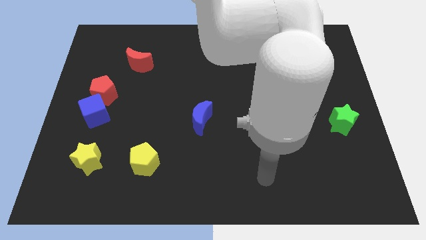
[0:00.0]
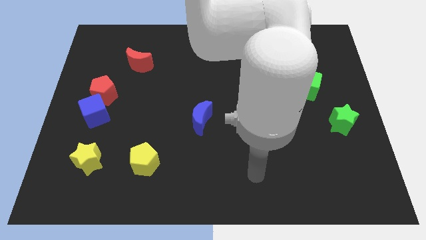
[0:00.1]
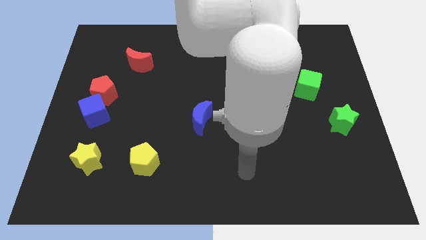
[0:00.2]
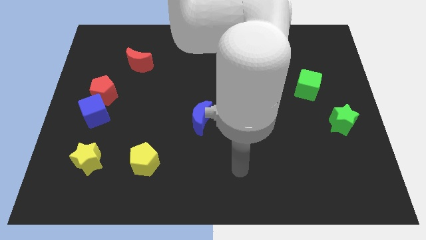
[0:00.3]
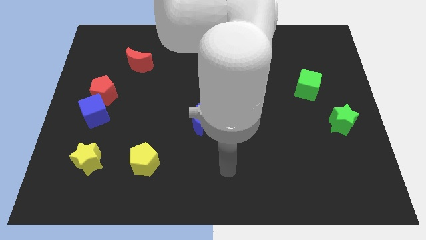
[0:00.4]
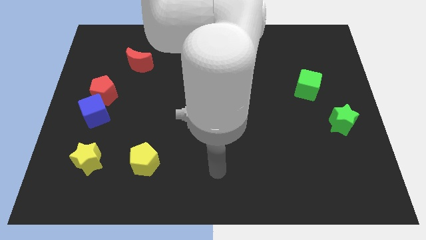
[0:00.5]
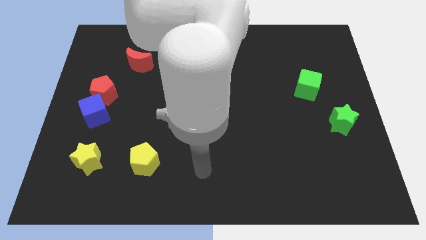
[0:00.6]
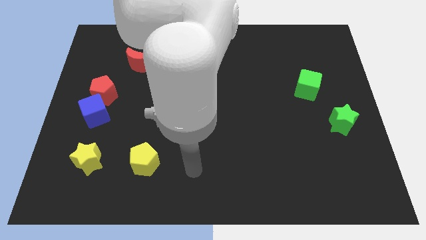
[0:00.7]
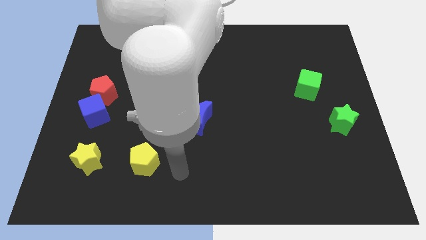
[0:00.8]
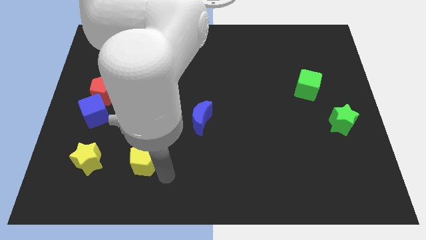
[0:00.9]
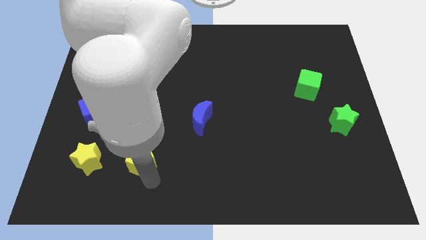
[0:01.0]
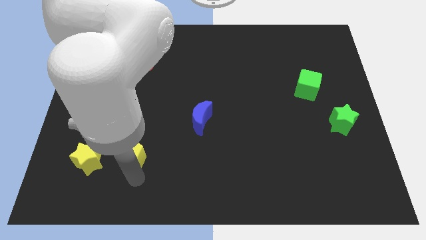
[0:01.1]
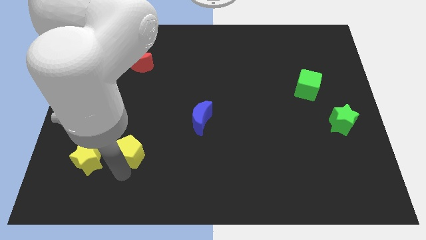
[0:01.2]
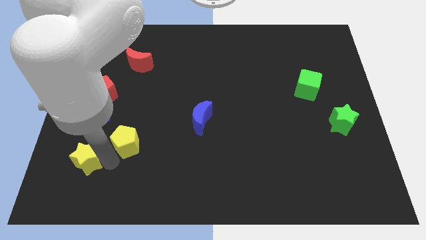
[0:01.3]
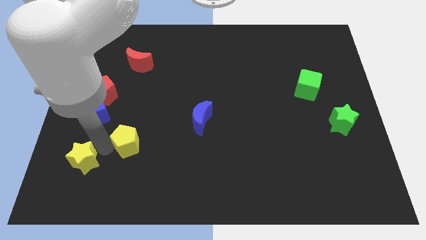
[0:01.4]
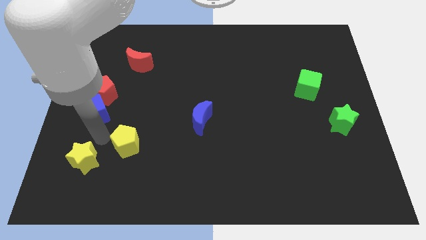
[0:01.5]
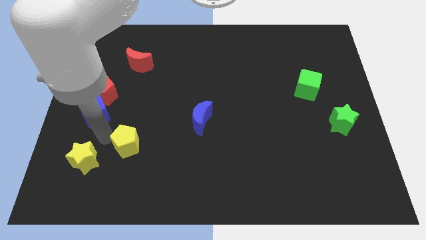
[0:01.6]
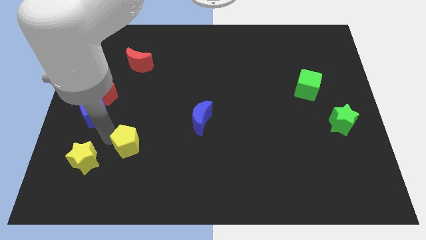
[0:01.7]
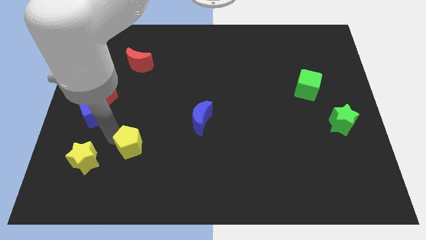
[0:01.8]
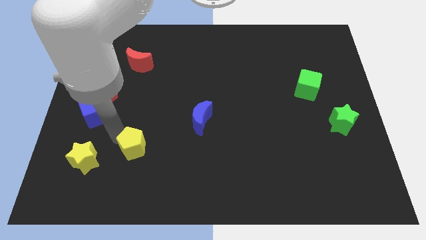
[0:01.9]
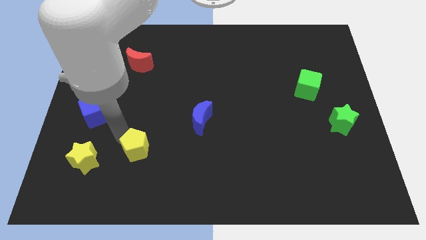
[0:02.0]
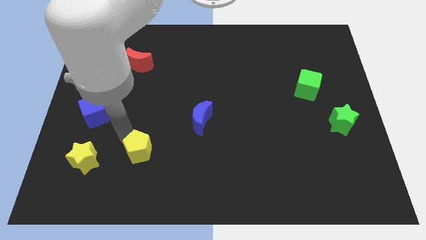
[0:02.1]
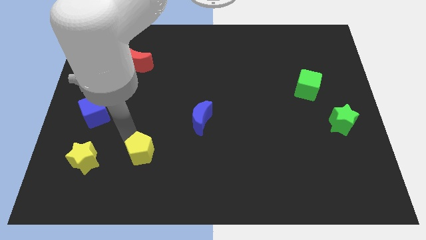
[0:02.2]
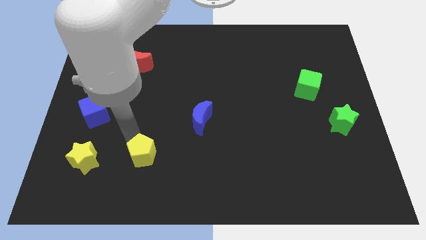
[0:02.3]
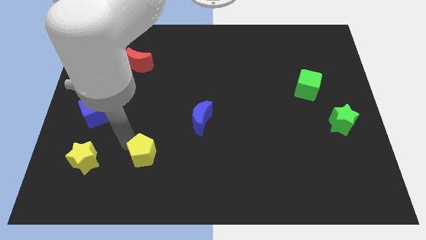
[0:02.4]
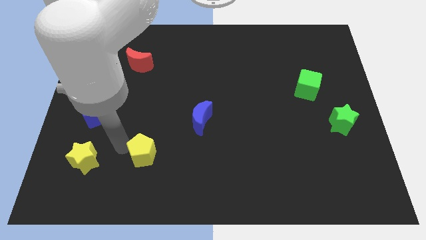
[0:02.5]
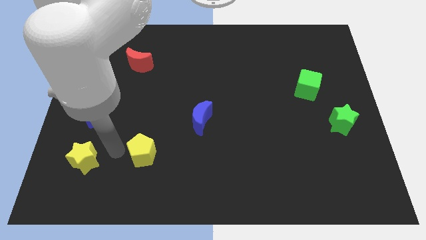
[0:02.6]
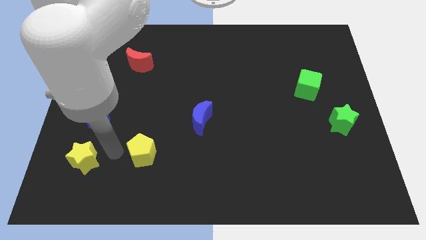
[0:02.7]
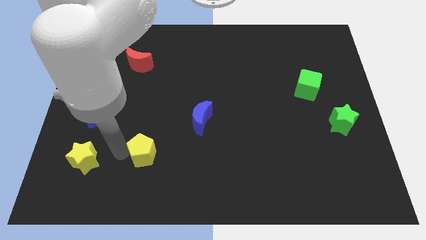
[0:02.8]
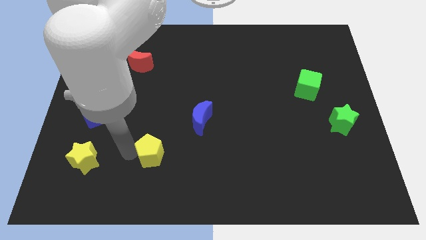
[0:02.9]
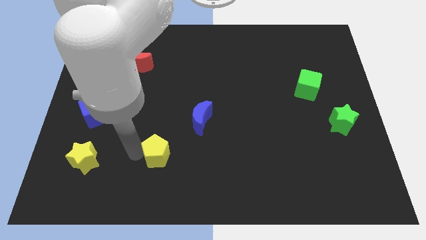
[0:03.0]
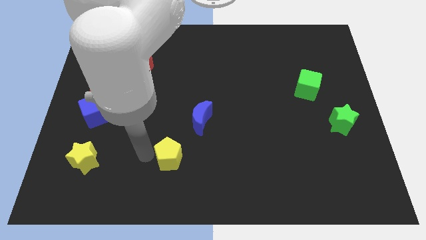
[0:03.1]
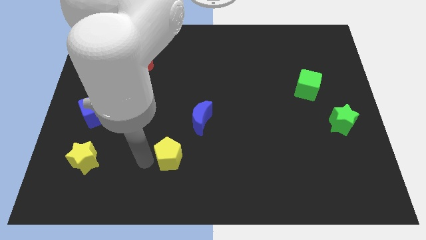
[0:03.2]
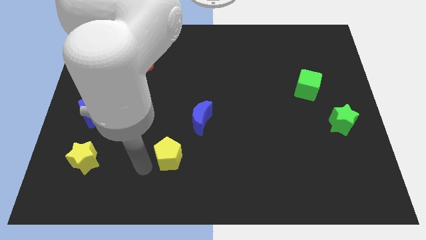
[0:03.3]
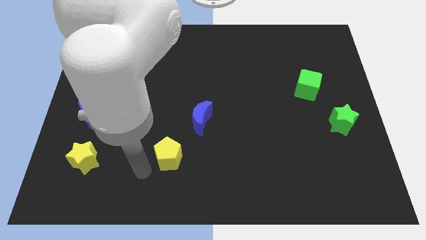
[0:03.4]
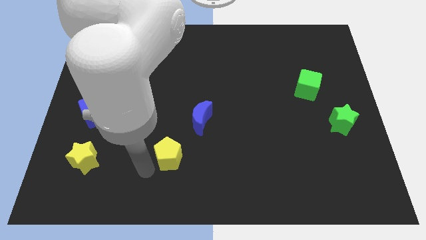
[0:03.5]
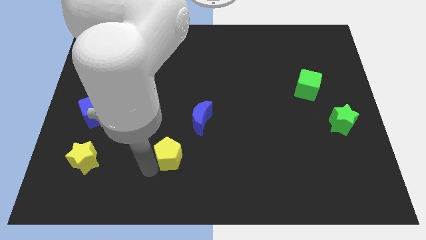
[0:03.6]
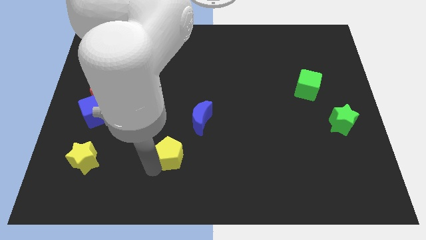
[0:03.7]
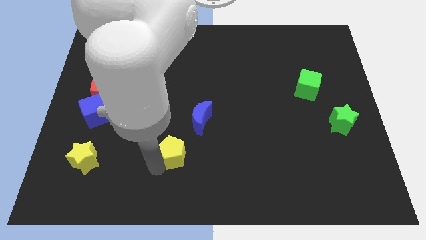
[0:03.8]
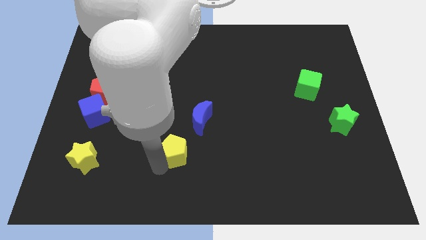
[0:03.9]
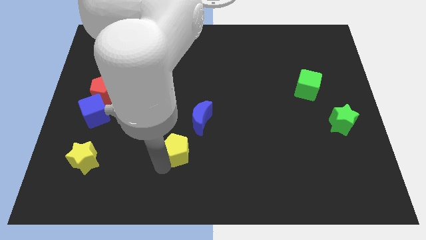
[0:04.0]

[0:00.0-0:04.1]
slide the yellow pentagon a little bit to the right

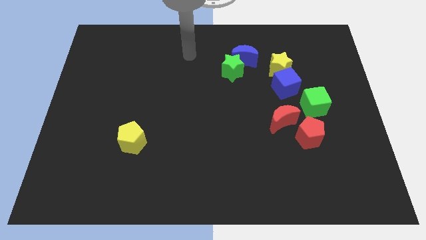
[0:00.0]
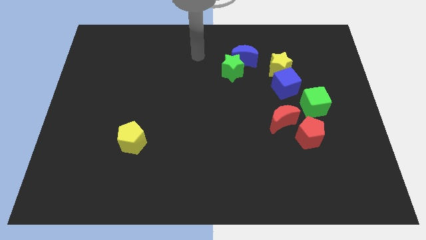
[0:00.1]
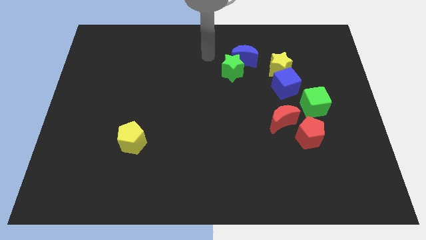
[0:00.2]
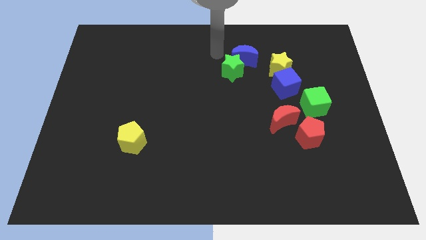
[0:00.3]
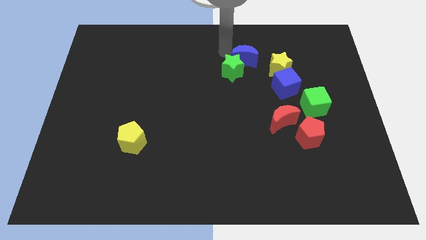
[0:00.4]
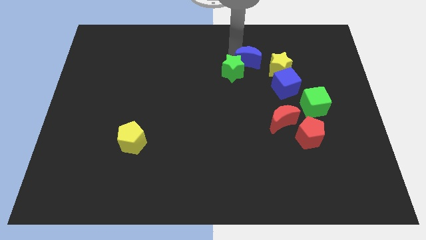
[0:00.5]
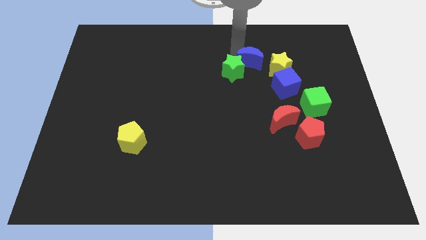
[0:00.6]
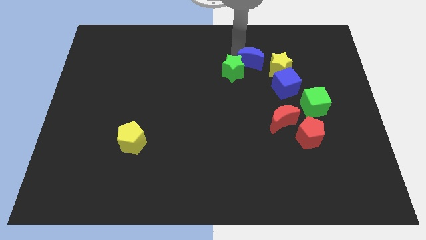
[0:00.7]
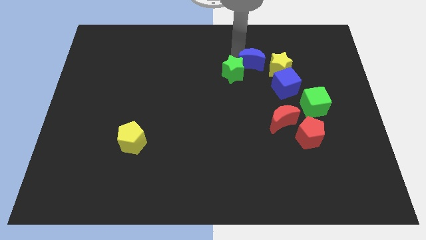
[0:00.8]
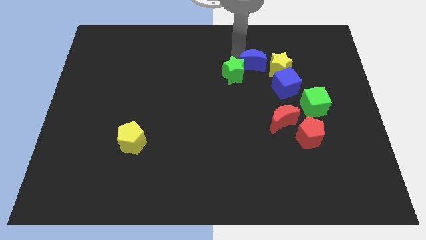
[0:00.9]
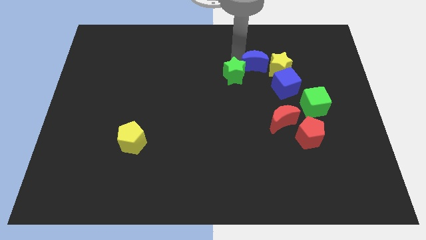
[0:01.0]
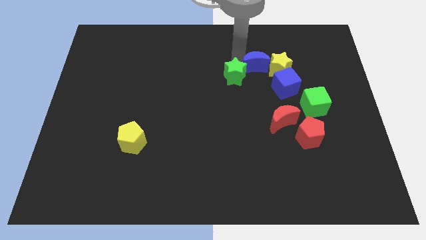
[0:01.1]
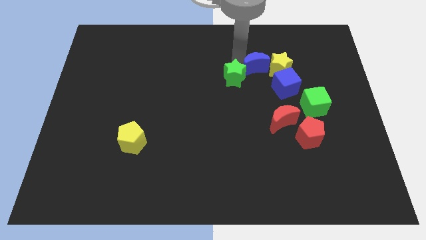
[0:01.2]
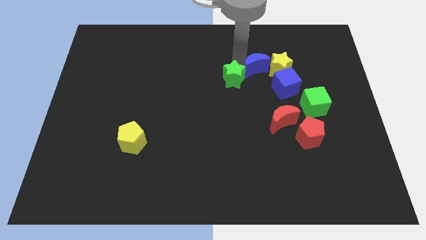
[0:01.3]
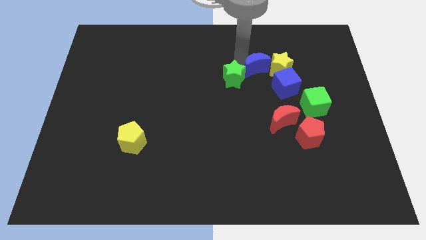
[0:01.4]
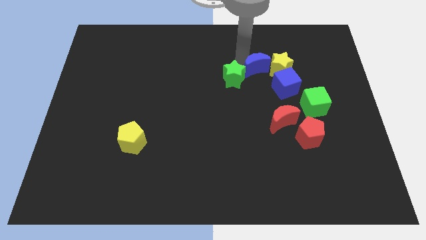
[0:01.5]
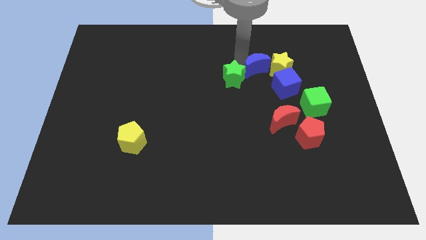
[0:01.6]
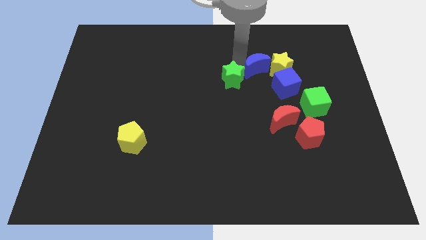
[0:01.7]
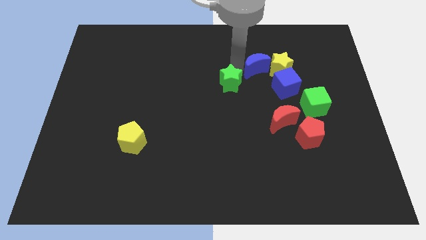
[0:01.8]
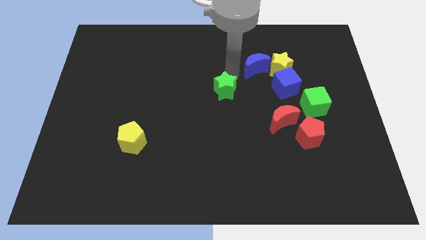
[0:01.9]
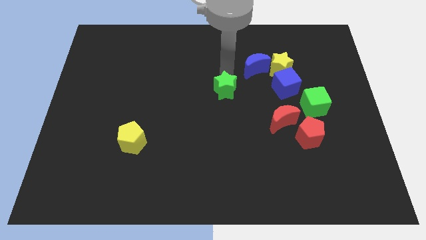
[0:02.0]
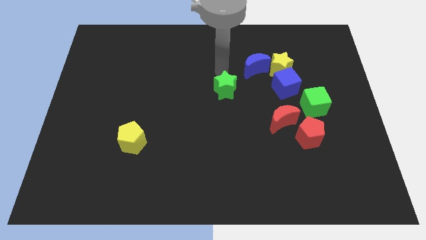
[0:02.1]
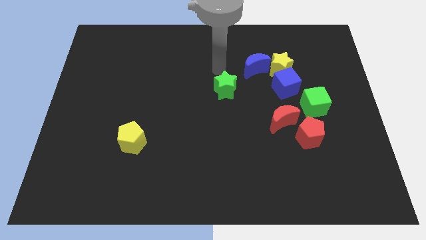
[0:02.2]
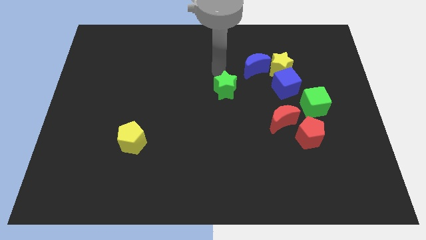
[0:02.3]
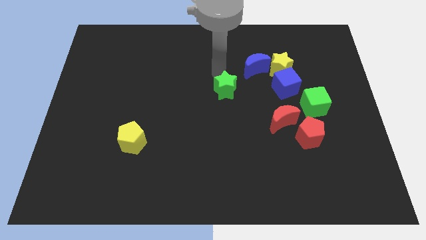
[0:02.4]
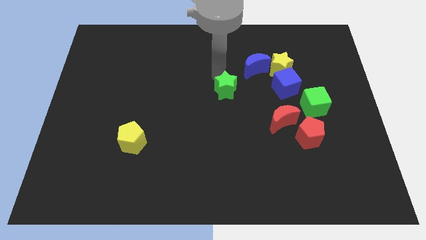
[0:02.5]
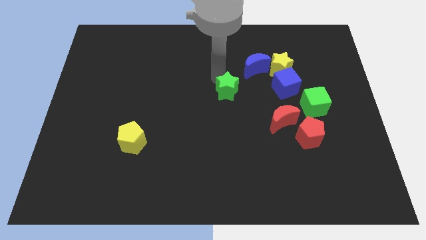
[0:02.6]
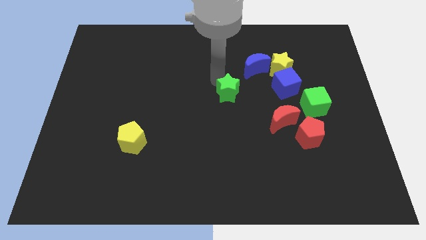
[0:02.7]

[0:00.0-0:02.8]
move the green star down a little bit

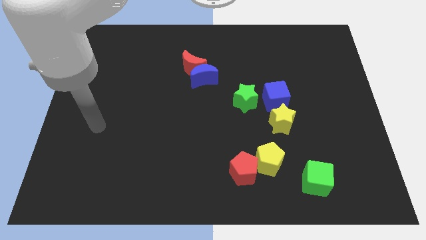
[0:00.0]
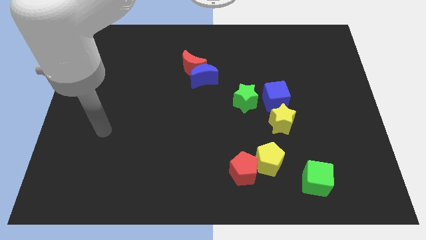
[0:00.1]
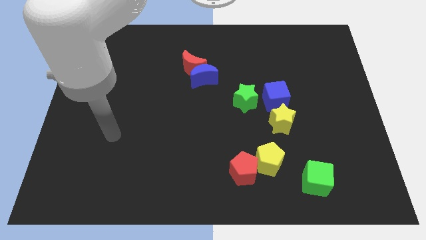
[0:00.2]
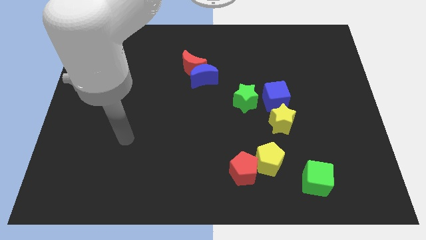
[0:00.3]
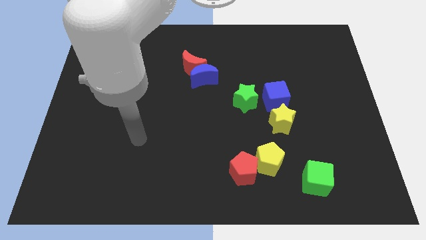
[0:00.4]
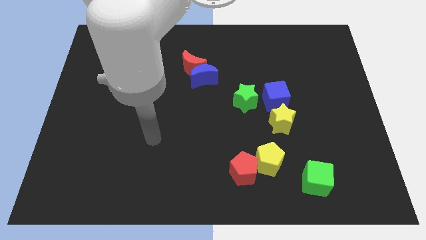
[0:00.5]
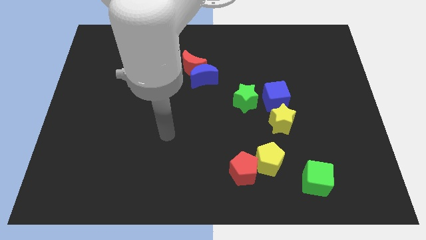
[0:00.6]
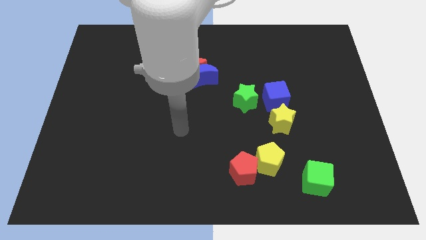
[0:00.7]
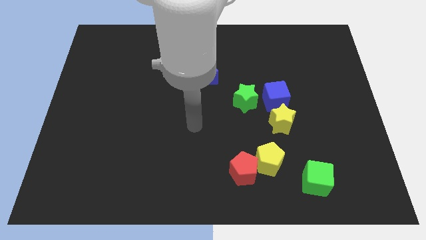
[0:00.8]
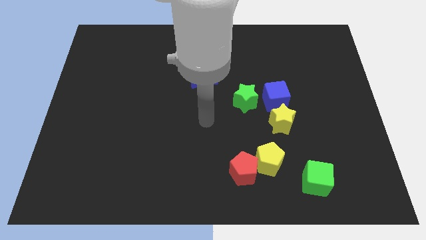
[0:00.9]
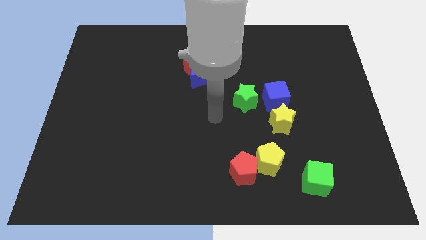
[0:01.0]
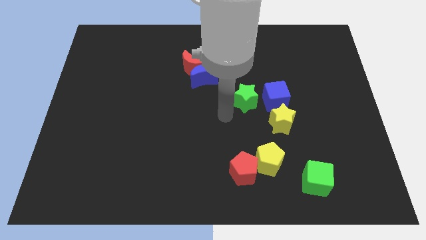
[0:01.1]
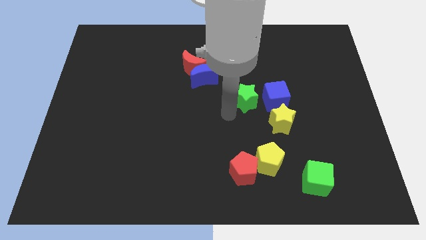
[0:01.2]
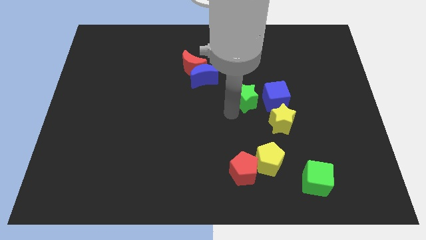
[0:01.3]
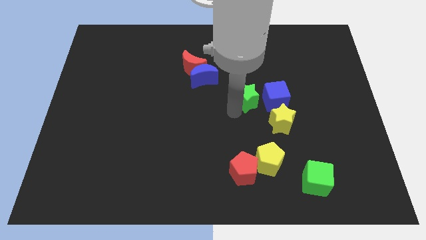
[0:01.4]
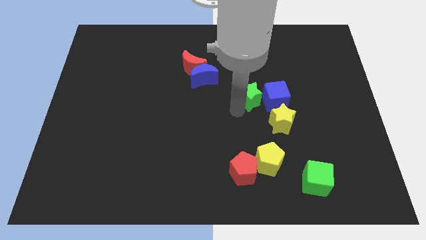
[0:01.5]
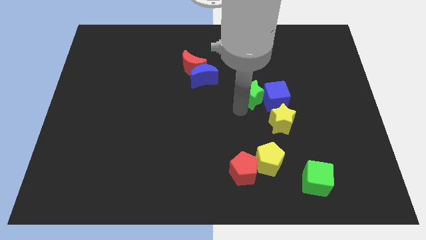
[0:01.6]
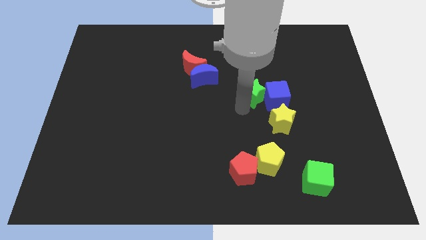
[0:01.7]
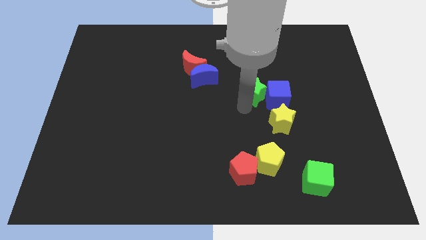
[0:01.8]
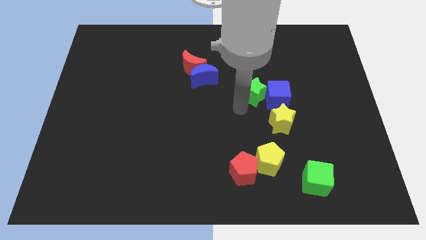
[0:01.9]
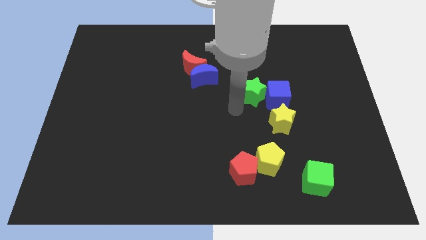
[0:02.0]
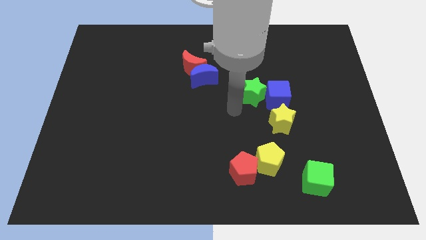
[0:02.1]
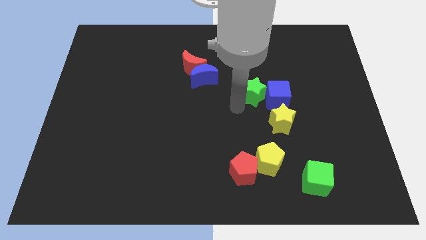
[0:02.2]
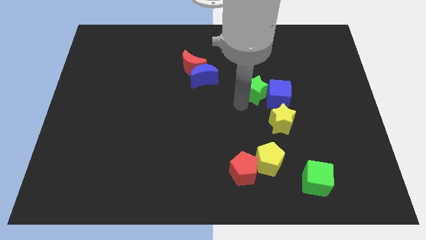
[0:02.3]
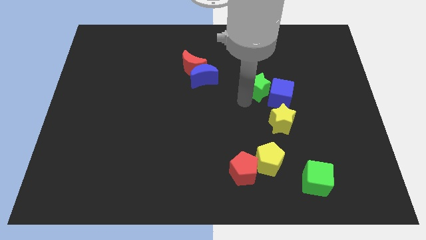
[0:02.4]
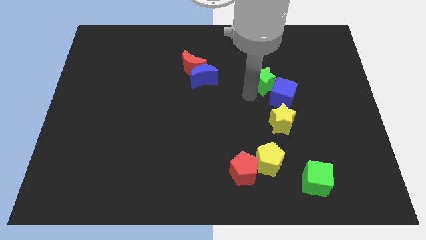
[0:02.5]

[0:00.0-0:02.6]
slightly push the green star upwards and then to the right
